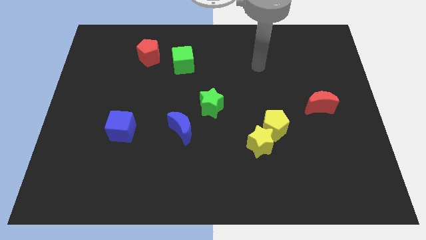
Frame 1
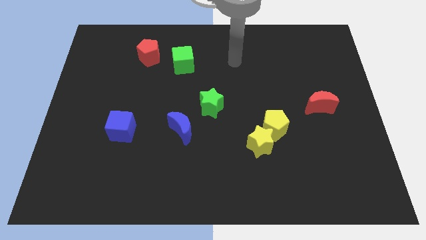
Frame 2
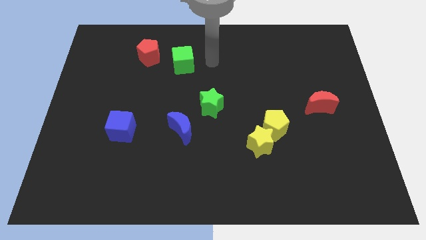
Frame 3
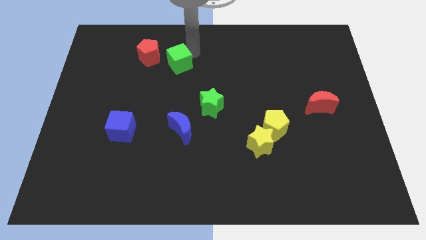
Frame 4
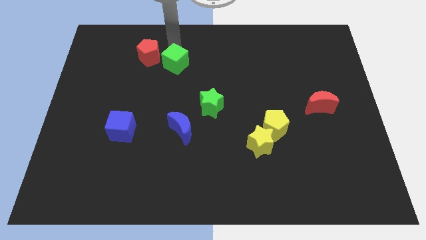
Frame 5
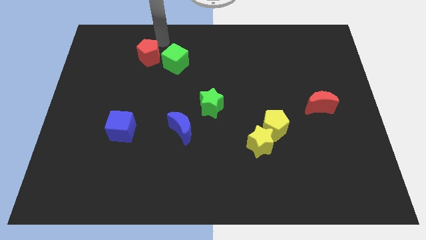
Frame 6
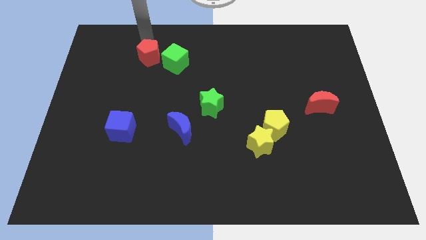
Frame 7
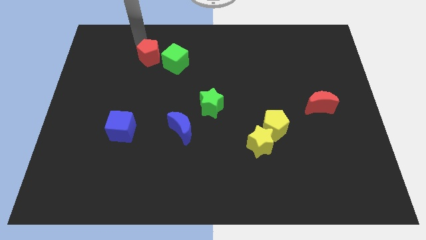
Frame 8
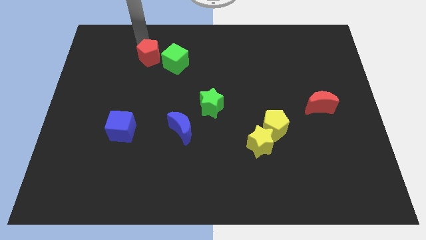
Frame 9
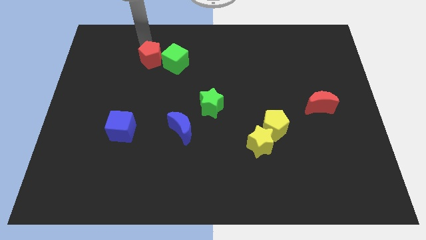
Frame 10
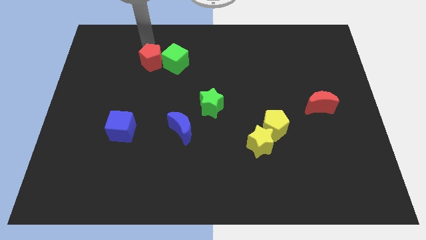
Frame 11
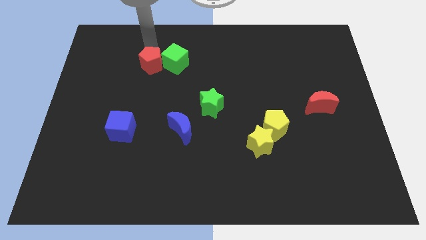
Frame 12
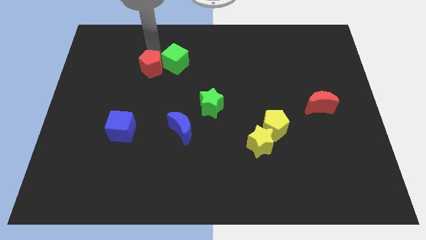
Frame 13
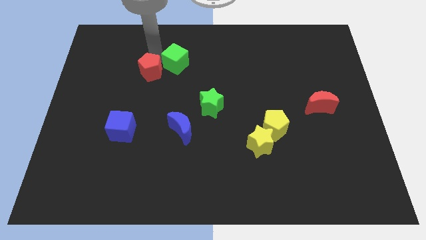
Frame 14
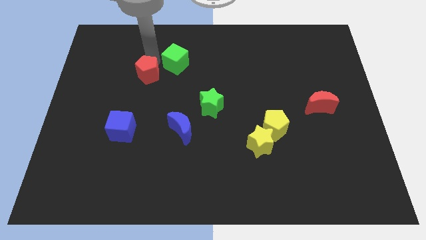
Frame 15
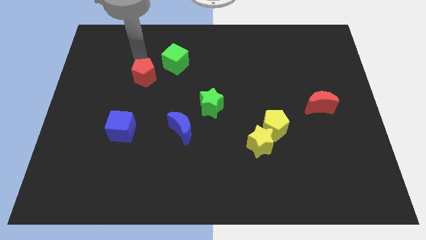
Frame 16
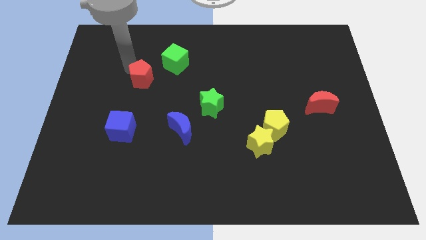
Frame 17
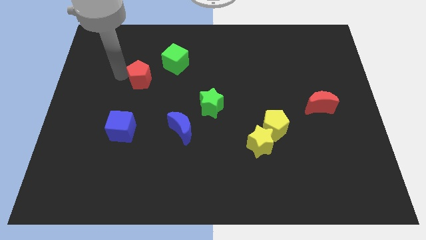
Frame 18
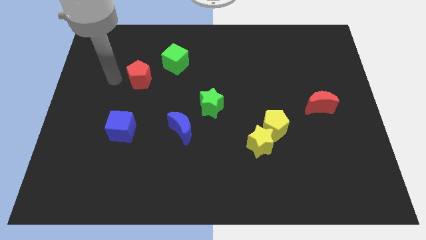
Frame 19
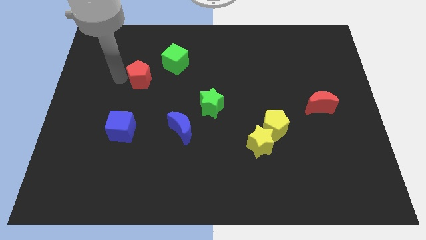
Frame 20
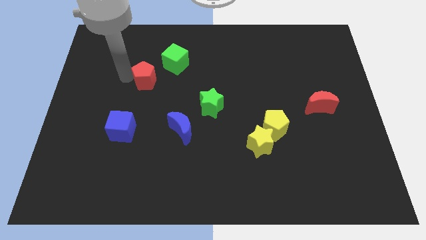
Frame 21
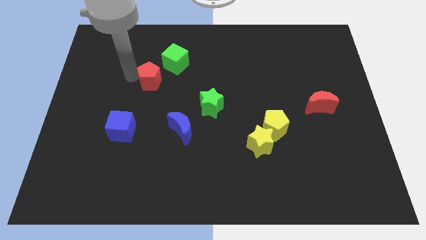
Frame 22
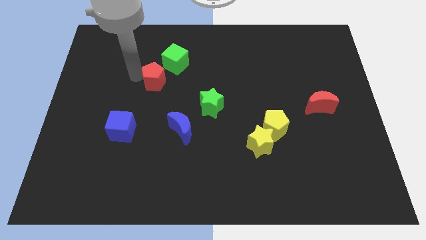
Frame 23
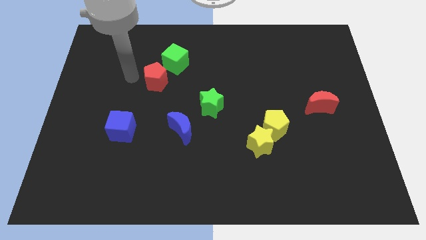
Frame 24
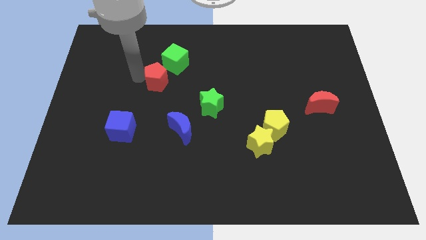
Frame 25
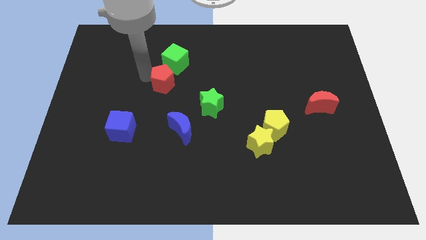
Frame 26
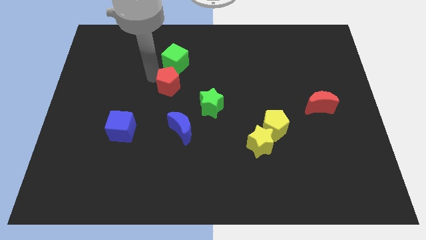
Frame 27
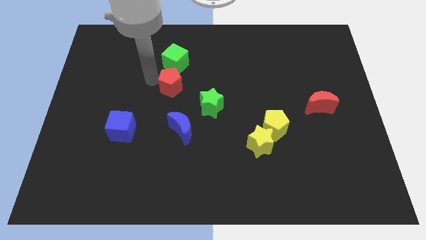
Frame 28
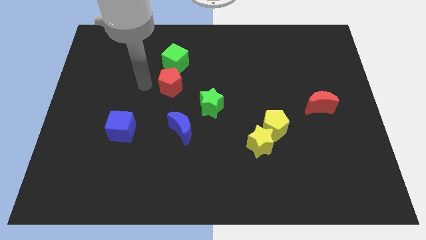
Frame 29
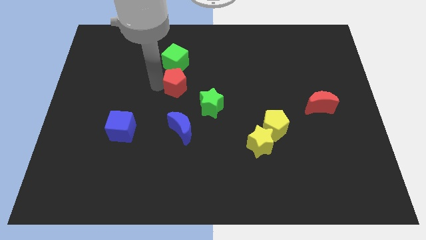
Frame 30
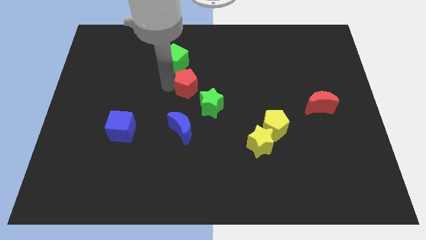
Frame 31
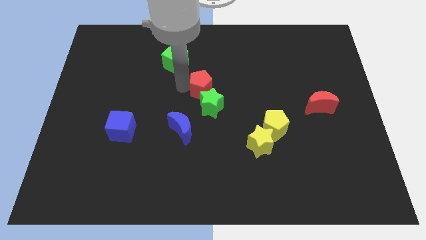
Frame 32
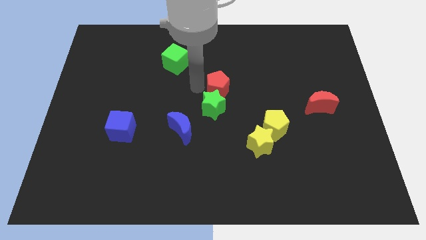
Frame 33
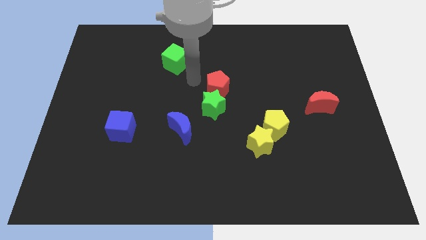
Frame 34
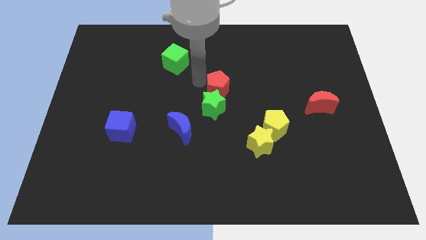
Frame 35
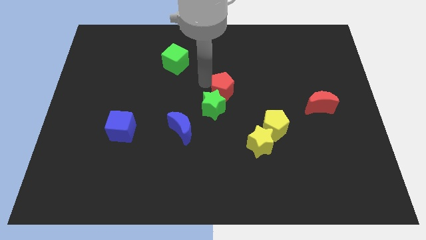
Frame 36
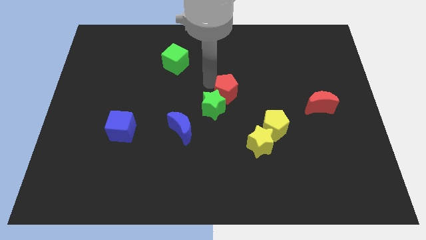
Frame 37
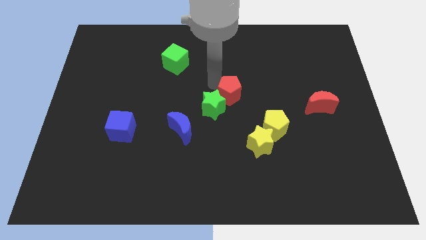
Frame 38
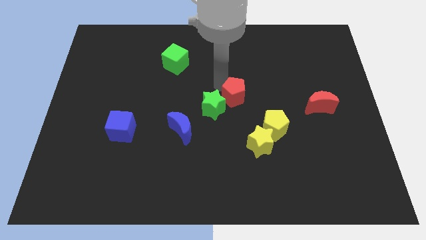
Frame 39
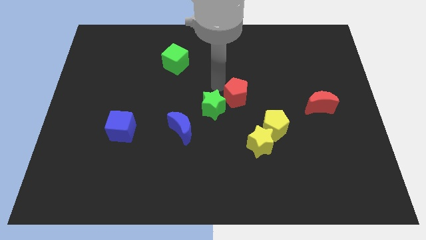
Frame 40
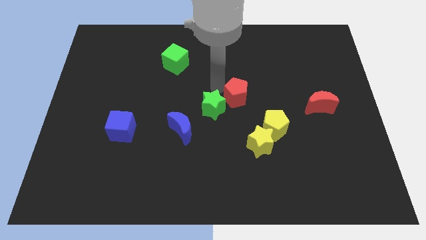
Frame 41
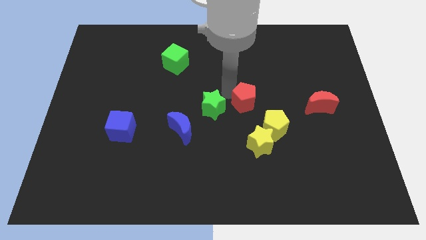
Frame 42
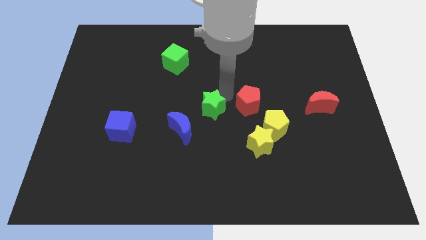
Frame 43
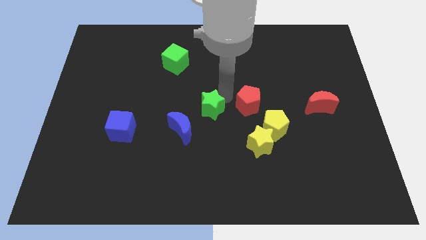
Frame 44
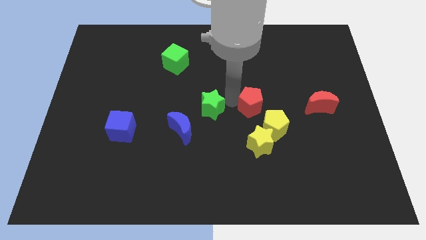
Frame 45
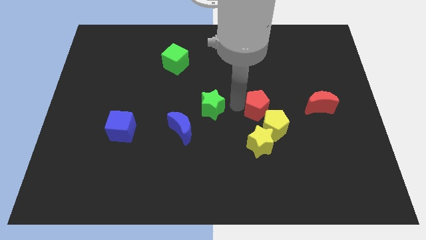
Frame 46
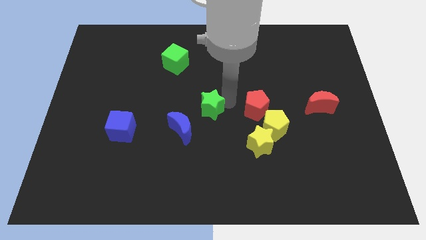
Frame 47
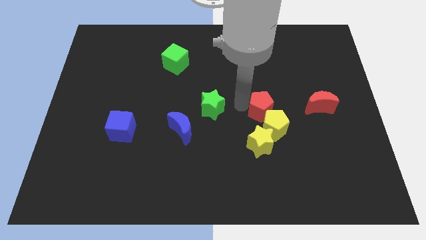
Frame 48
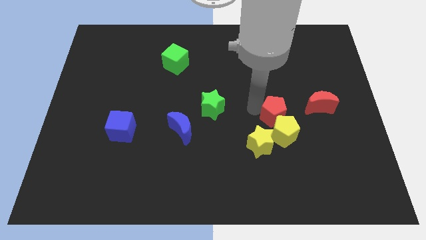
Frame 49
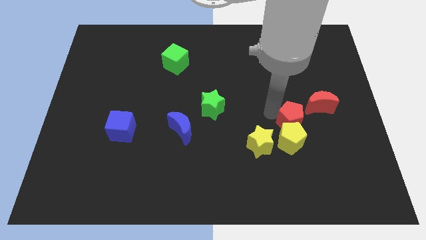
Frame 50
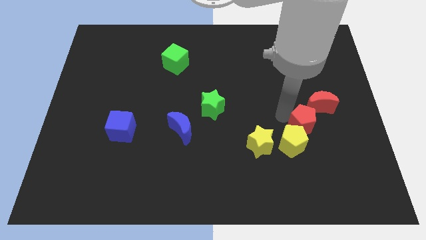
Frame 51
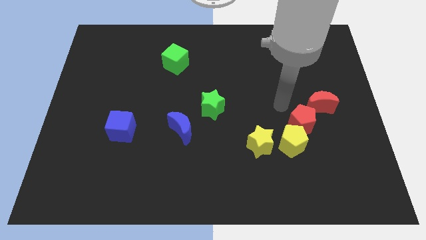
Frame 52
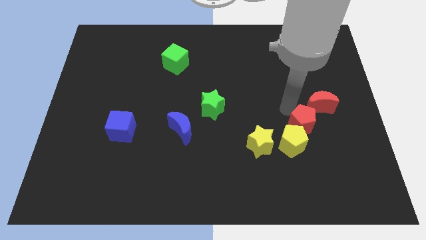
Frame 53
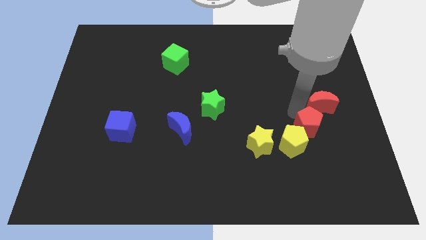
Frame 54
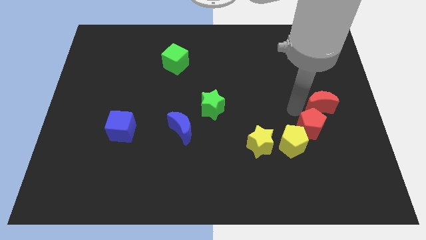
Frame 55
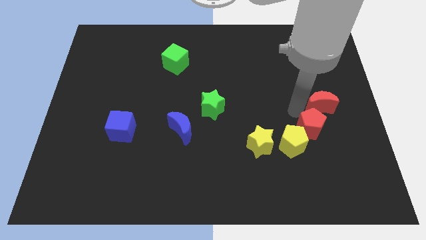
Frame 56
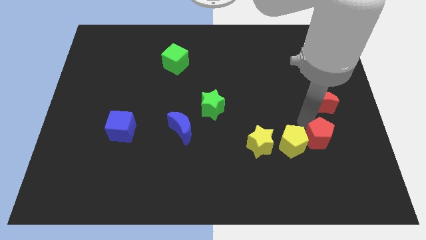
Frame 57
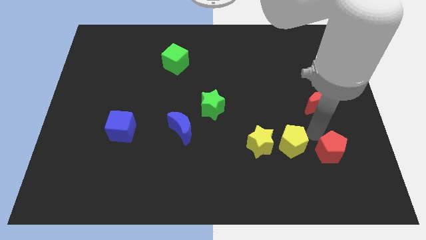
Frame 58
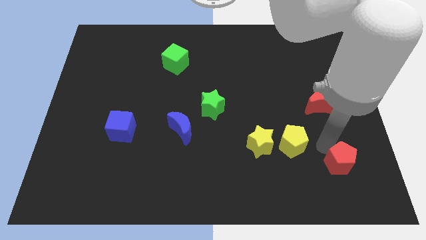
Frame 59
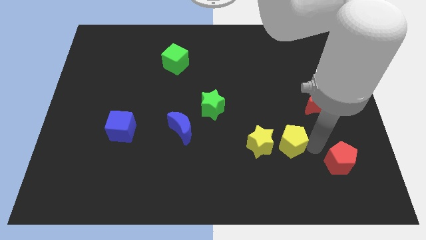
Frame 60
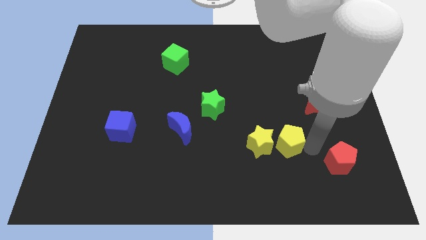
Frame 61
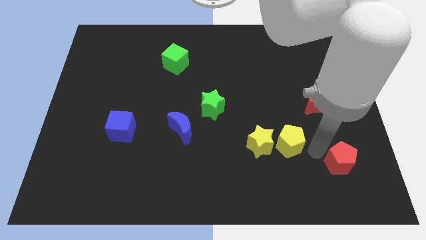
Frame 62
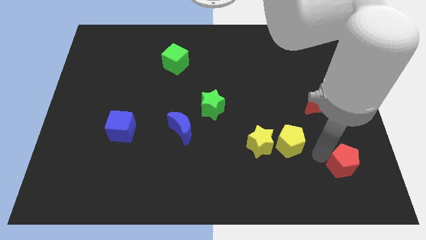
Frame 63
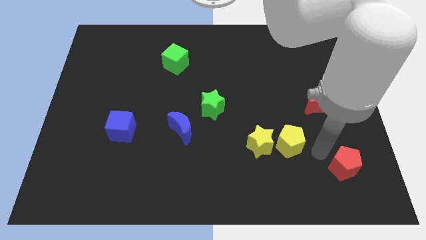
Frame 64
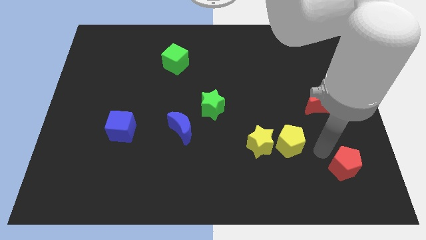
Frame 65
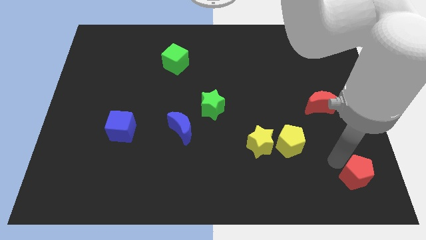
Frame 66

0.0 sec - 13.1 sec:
move the red pentagon to the bottom right corner
